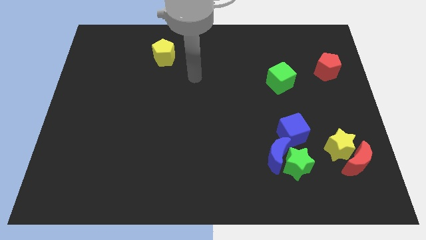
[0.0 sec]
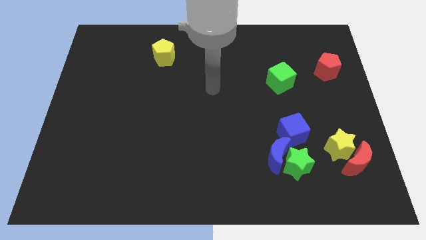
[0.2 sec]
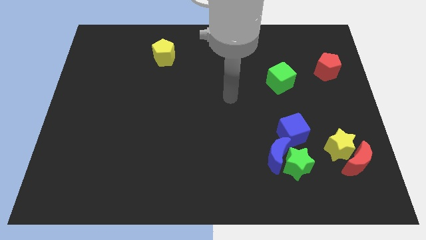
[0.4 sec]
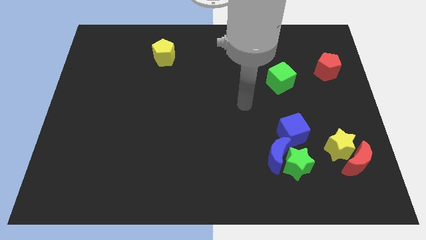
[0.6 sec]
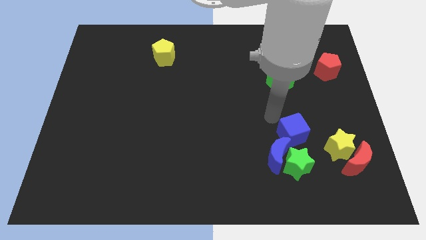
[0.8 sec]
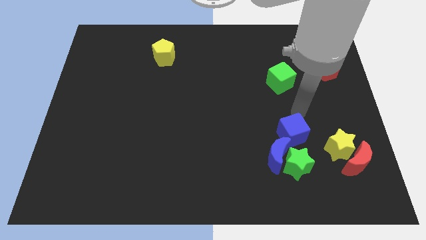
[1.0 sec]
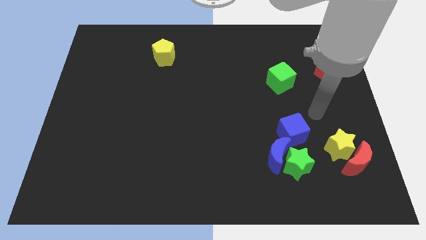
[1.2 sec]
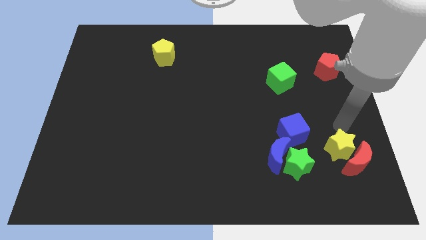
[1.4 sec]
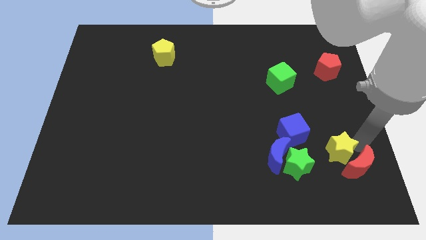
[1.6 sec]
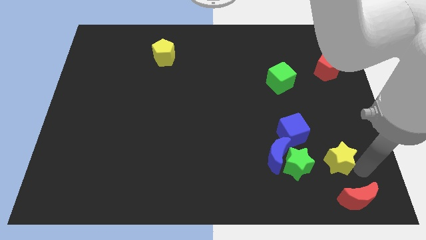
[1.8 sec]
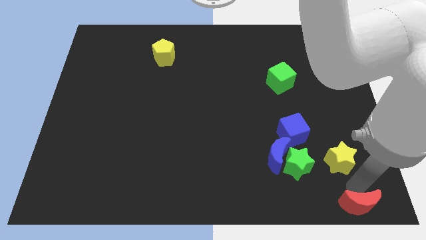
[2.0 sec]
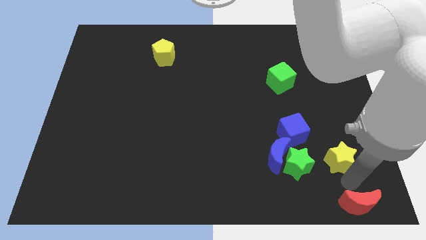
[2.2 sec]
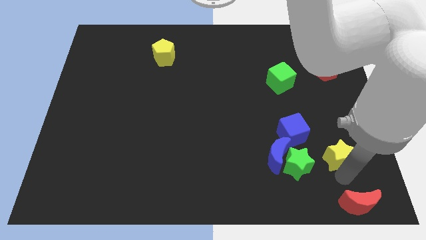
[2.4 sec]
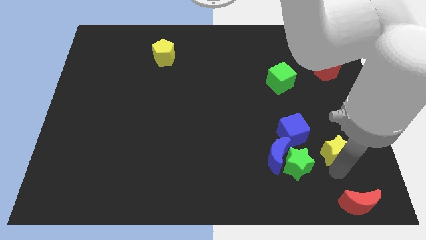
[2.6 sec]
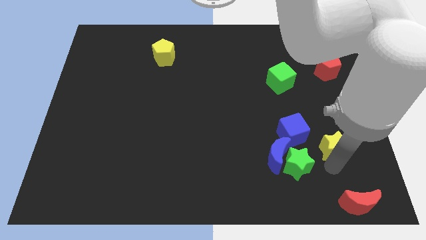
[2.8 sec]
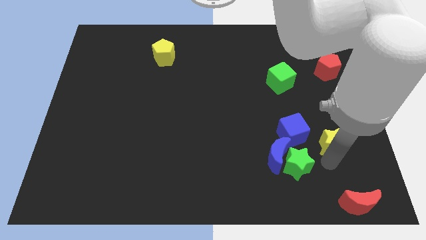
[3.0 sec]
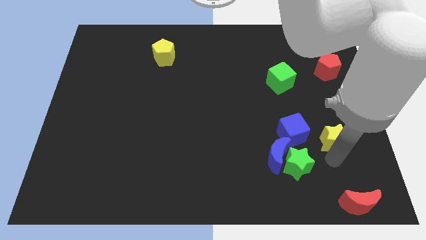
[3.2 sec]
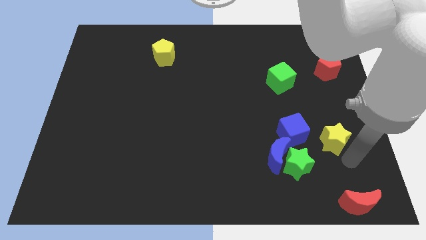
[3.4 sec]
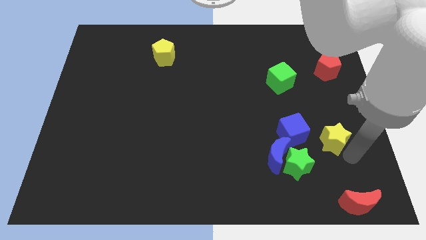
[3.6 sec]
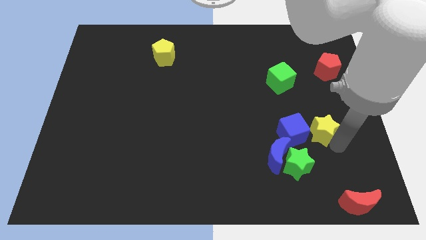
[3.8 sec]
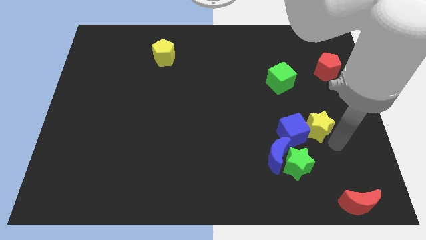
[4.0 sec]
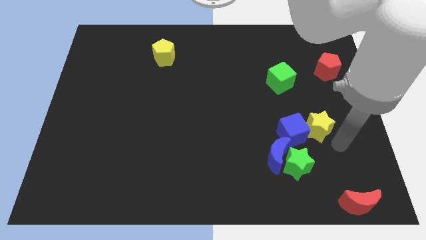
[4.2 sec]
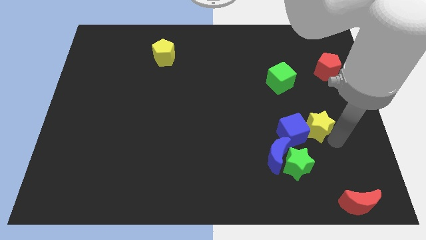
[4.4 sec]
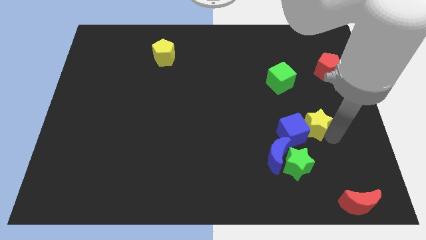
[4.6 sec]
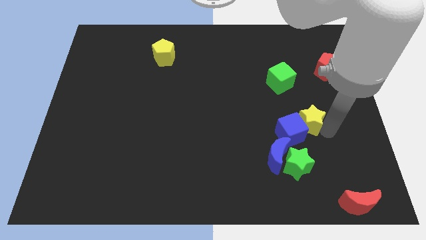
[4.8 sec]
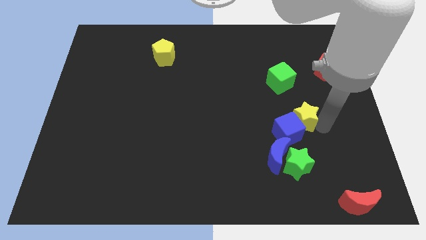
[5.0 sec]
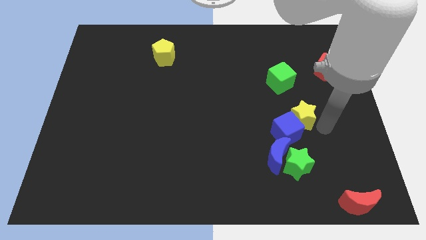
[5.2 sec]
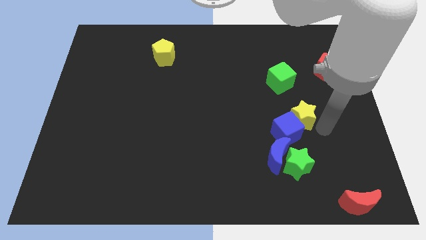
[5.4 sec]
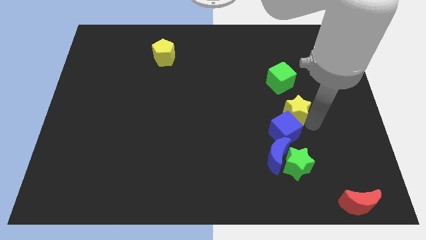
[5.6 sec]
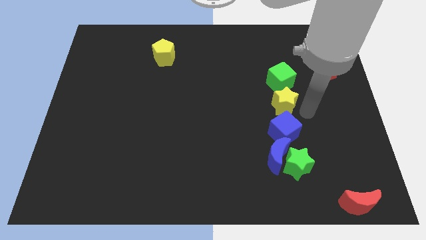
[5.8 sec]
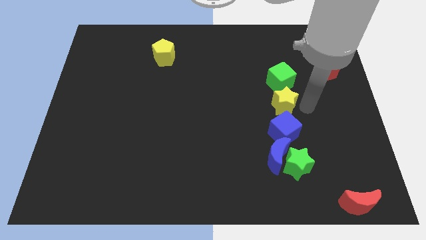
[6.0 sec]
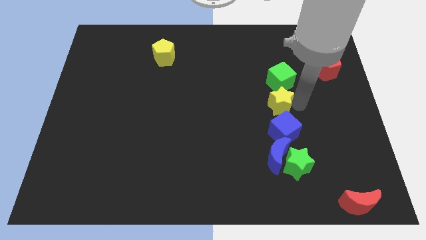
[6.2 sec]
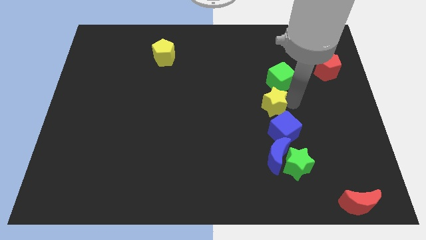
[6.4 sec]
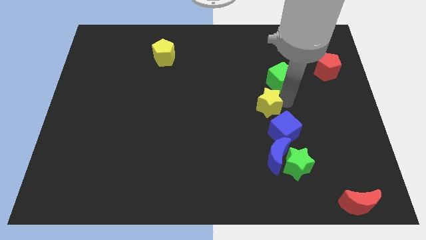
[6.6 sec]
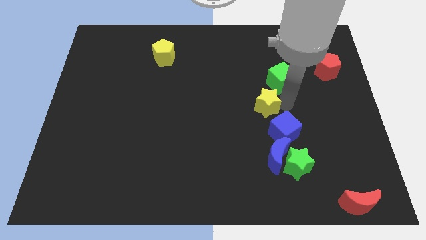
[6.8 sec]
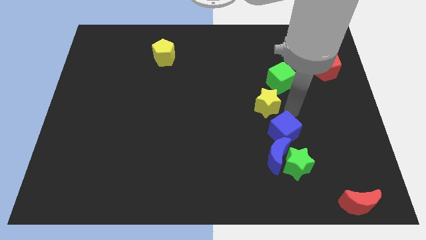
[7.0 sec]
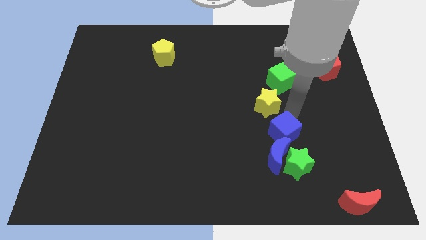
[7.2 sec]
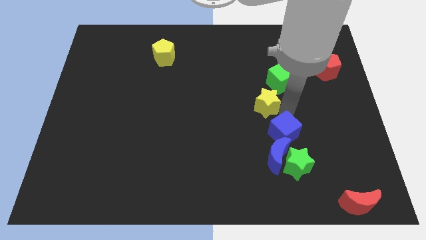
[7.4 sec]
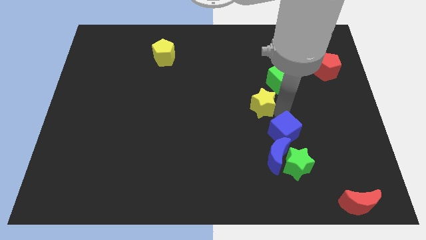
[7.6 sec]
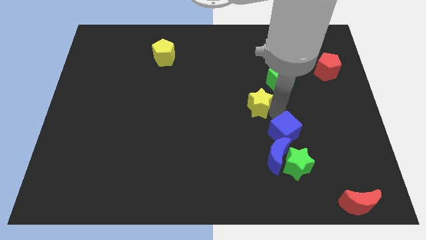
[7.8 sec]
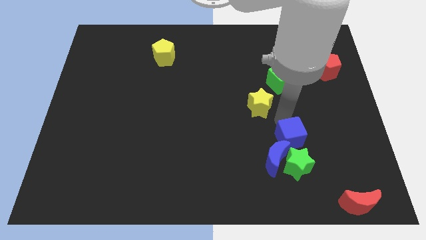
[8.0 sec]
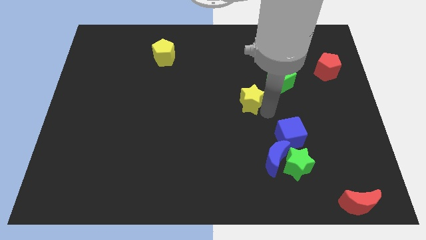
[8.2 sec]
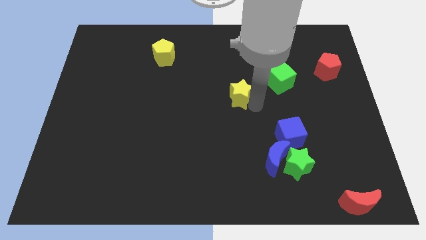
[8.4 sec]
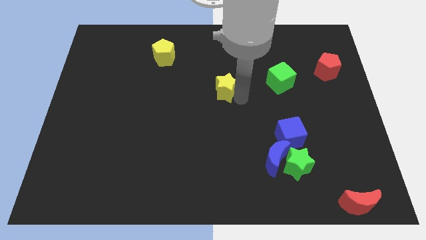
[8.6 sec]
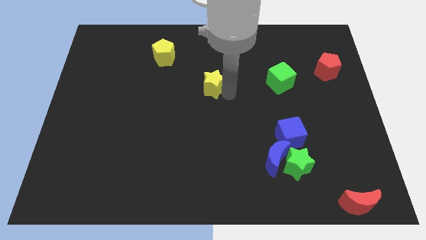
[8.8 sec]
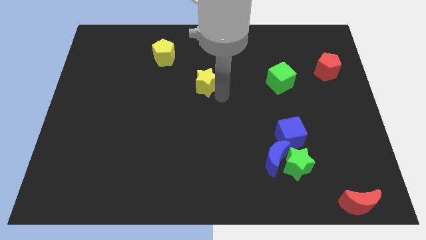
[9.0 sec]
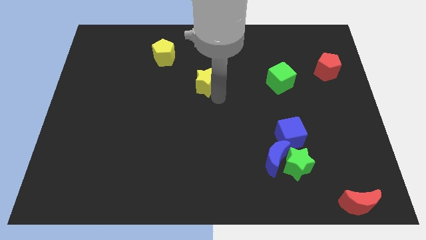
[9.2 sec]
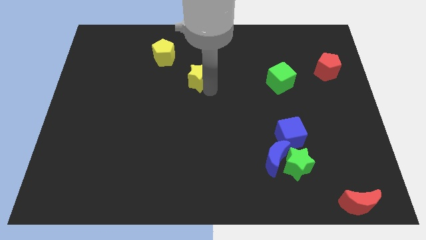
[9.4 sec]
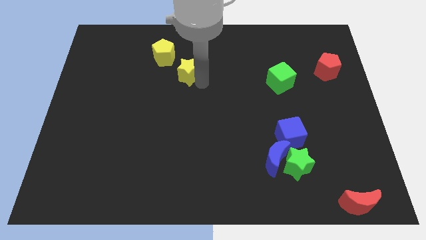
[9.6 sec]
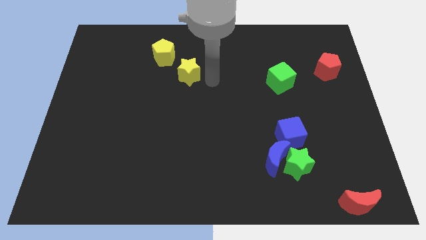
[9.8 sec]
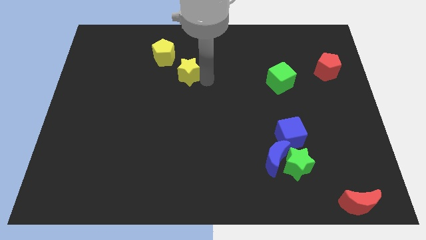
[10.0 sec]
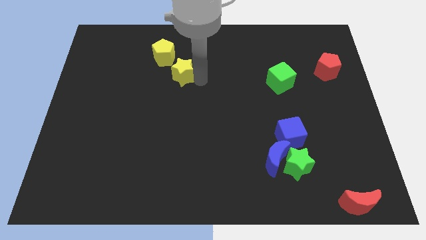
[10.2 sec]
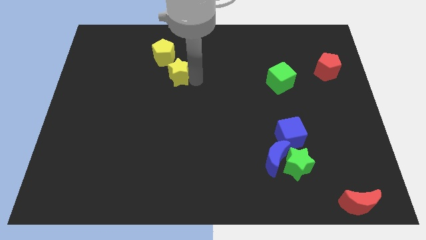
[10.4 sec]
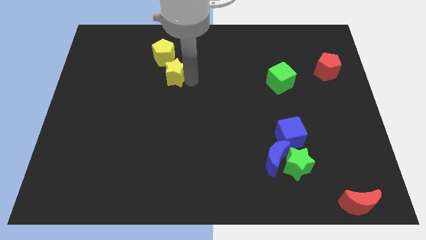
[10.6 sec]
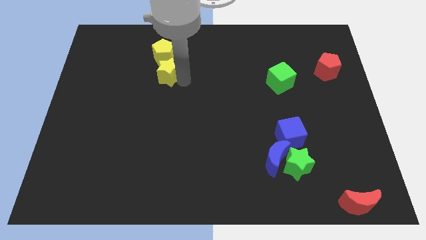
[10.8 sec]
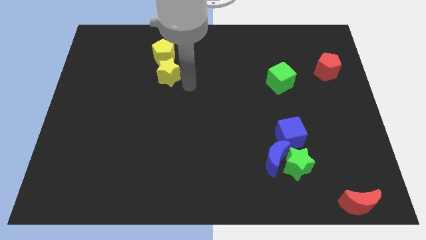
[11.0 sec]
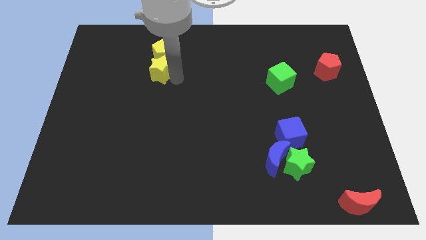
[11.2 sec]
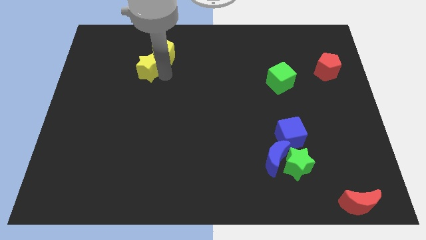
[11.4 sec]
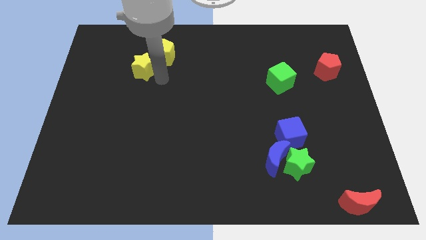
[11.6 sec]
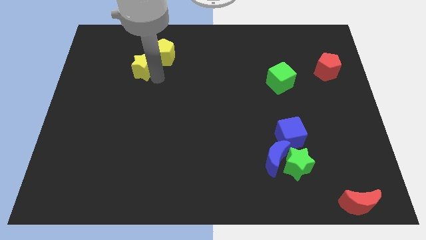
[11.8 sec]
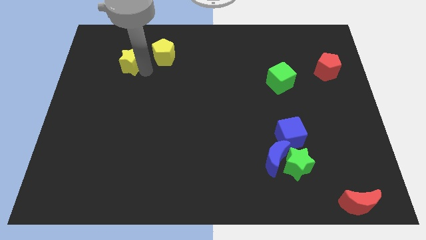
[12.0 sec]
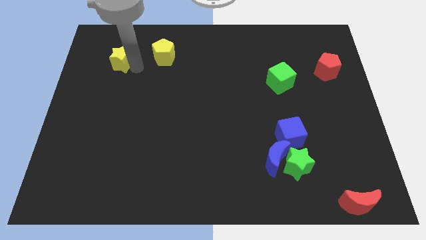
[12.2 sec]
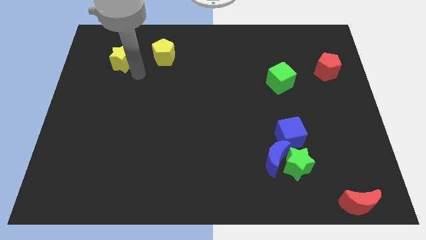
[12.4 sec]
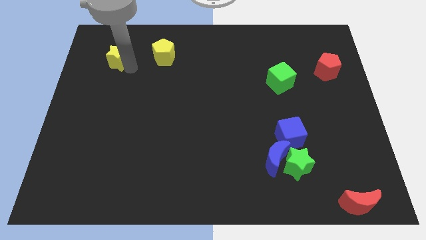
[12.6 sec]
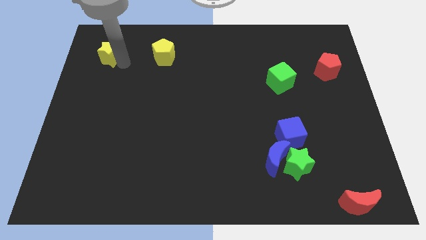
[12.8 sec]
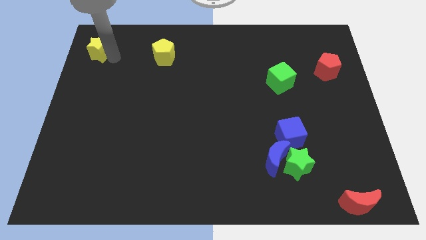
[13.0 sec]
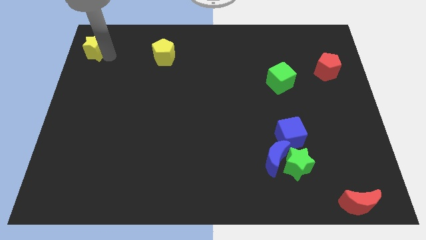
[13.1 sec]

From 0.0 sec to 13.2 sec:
slide the yellow star to the top left corner
